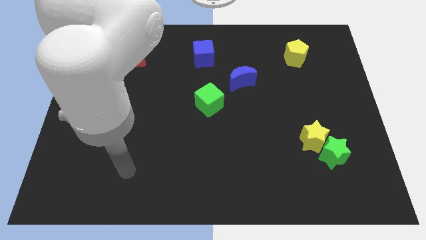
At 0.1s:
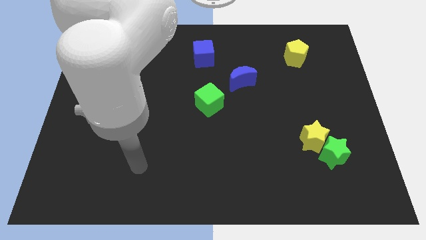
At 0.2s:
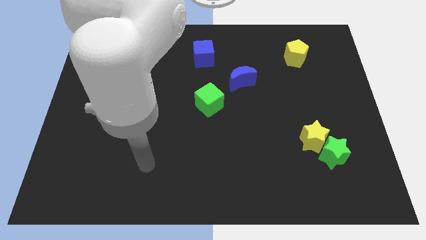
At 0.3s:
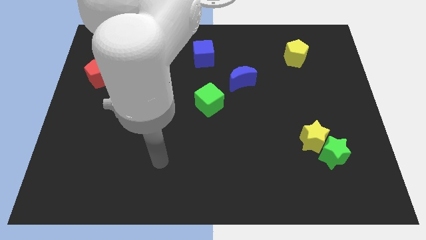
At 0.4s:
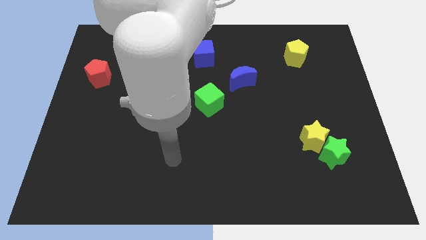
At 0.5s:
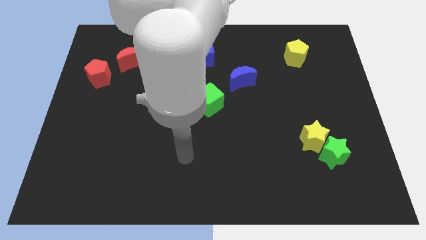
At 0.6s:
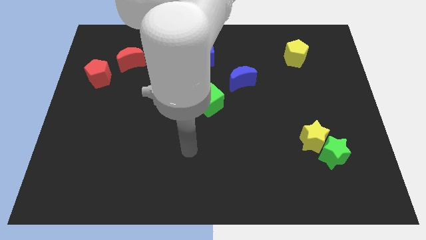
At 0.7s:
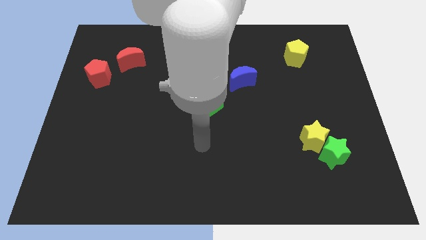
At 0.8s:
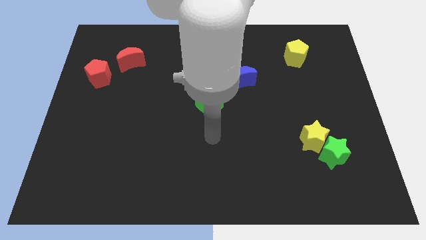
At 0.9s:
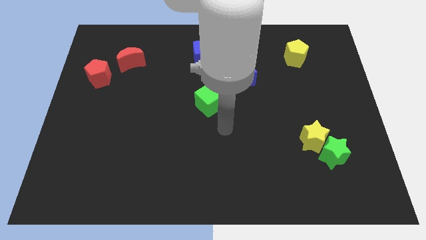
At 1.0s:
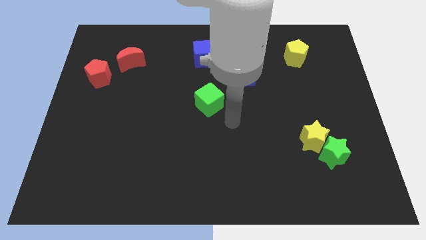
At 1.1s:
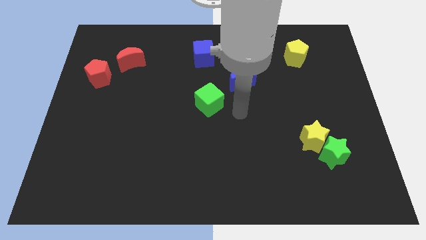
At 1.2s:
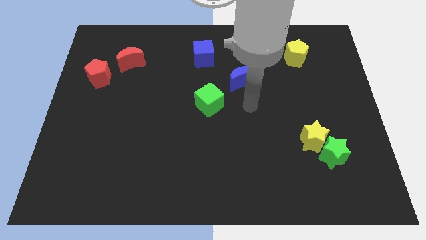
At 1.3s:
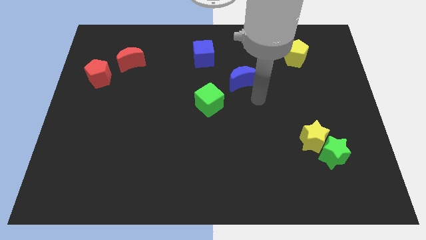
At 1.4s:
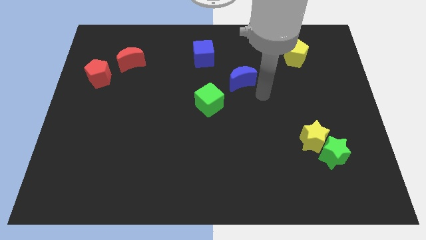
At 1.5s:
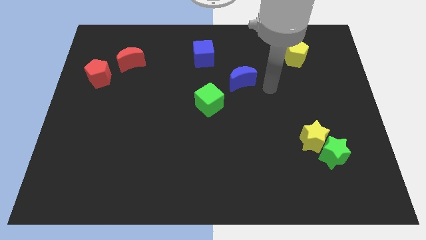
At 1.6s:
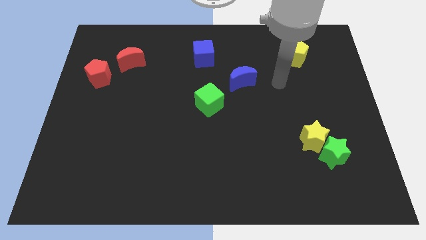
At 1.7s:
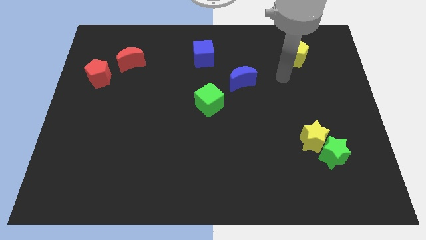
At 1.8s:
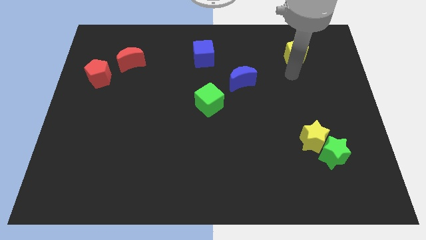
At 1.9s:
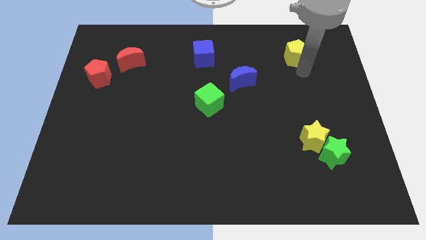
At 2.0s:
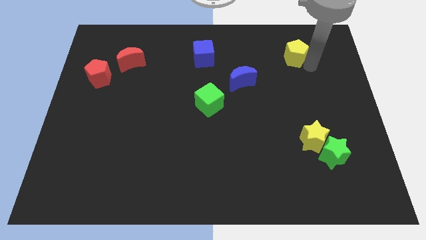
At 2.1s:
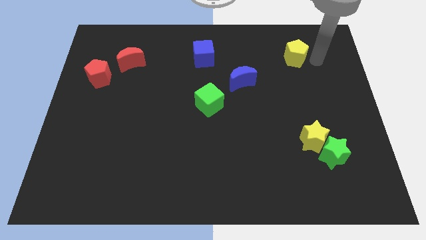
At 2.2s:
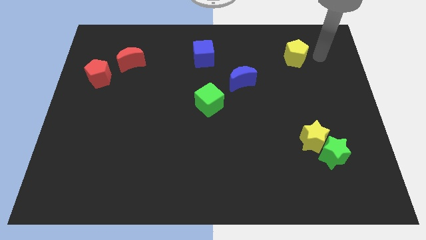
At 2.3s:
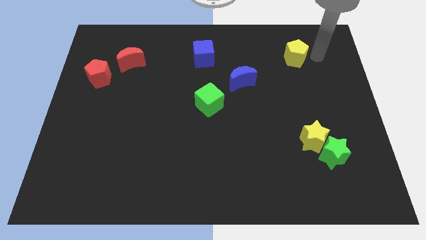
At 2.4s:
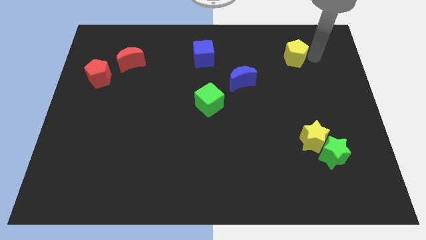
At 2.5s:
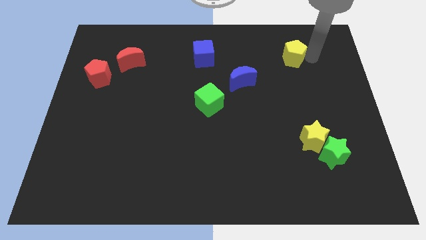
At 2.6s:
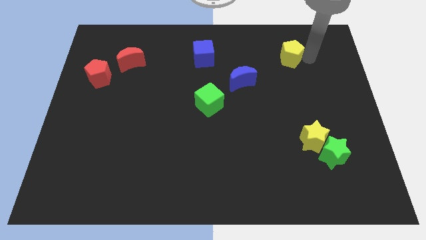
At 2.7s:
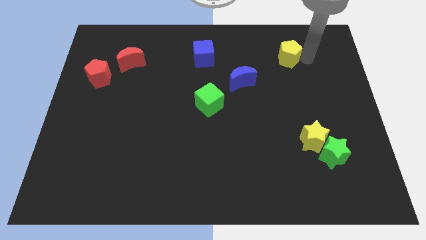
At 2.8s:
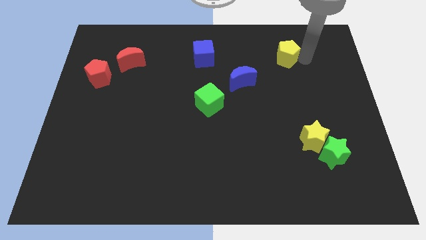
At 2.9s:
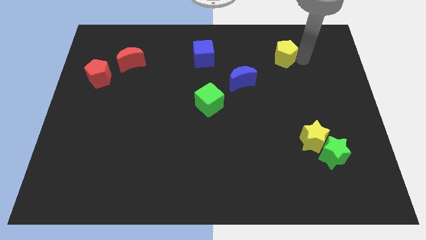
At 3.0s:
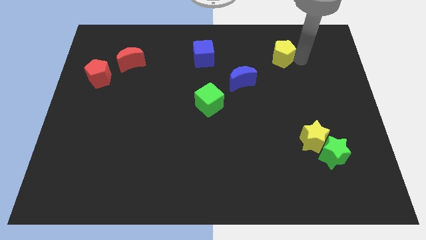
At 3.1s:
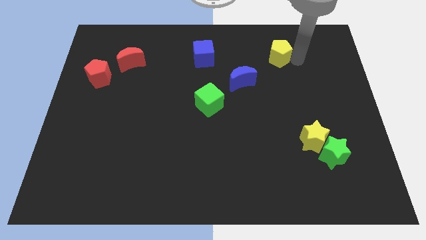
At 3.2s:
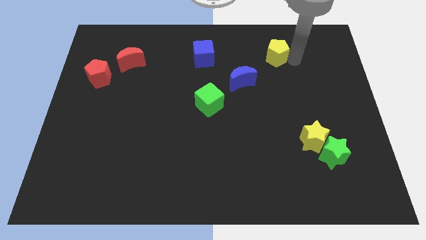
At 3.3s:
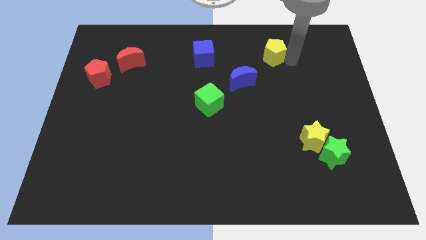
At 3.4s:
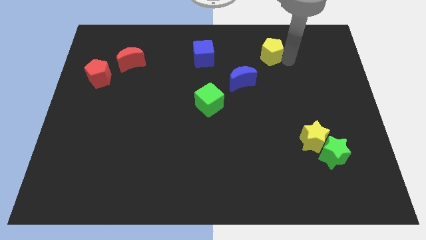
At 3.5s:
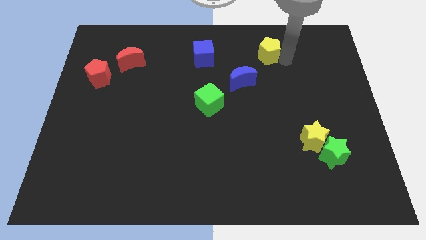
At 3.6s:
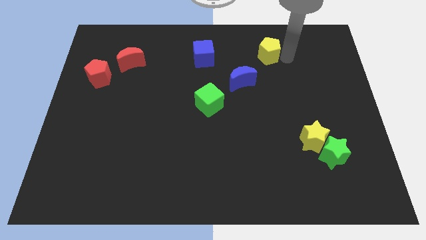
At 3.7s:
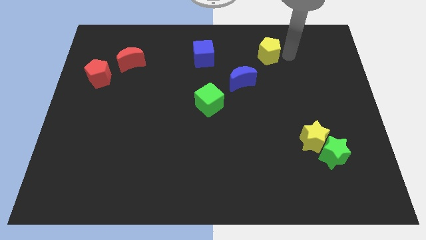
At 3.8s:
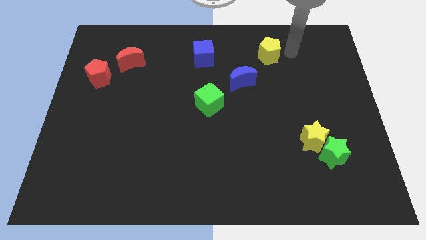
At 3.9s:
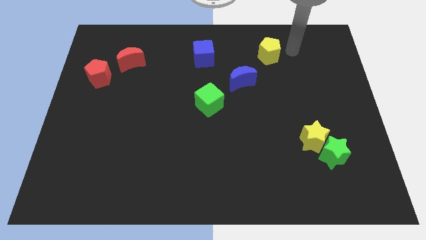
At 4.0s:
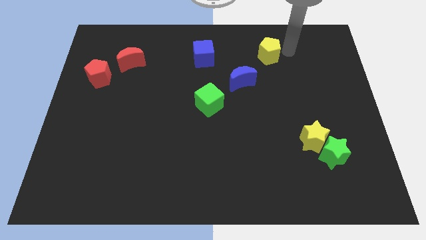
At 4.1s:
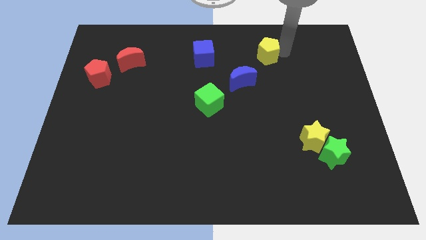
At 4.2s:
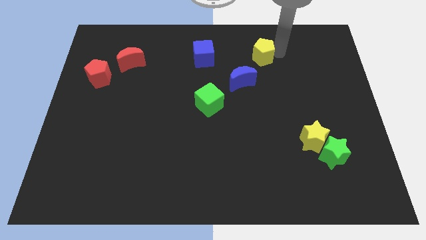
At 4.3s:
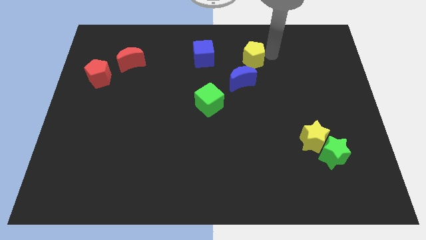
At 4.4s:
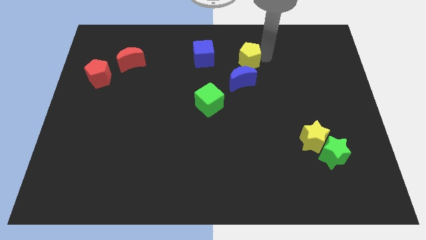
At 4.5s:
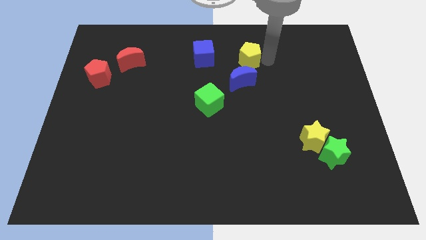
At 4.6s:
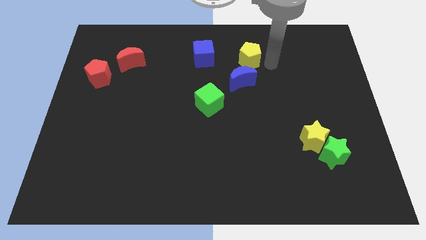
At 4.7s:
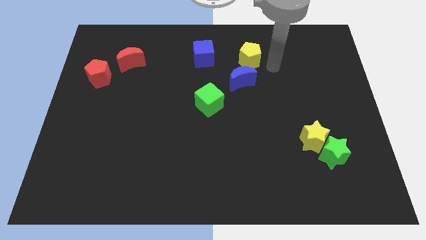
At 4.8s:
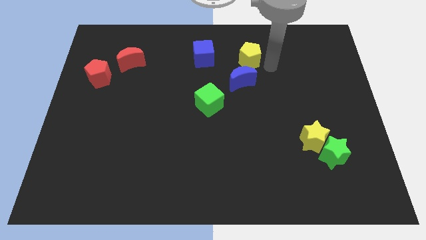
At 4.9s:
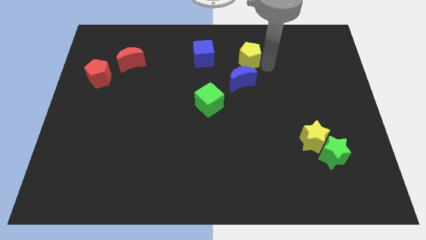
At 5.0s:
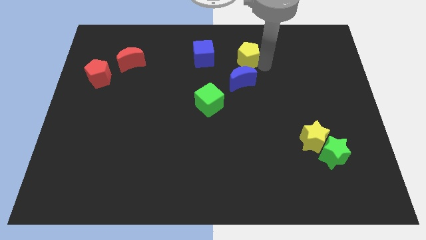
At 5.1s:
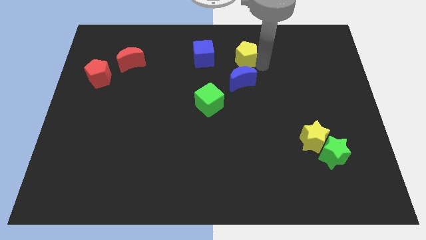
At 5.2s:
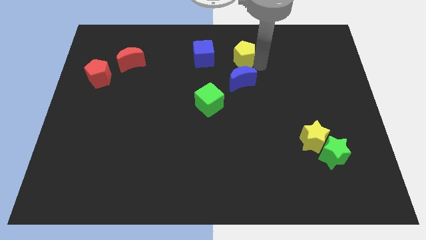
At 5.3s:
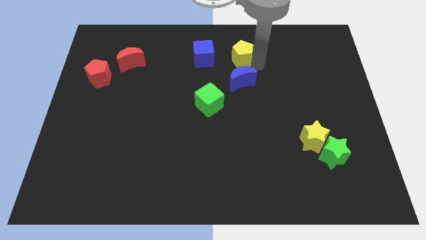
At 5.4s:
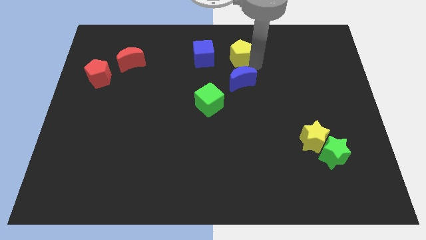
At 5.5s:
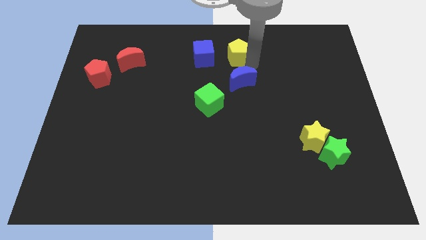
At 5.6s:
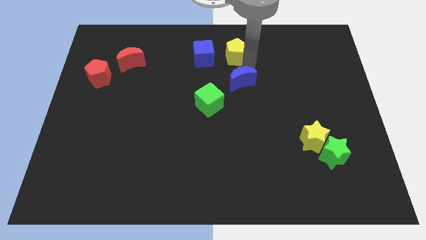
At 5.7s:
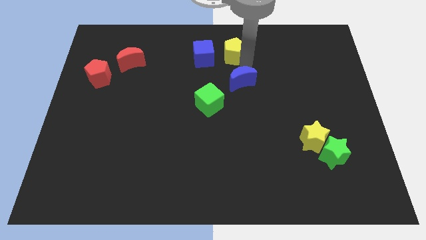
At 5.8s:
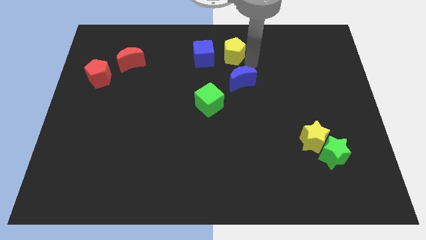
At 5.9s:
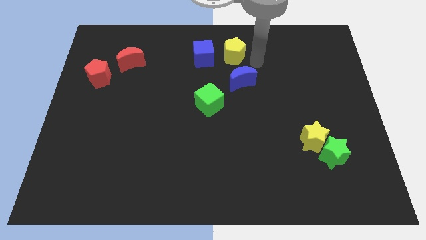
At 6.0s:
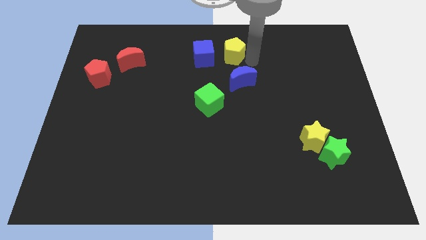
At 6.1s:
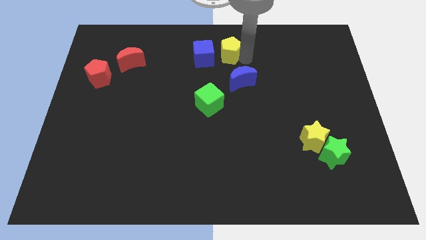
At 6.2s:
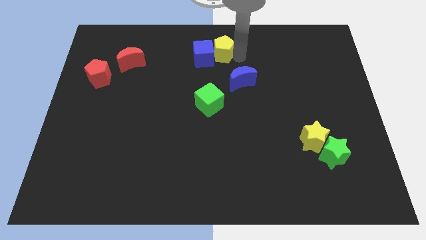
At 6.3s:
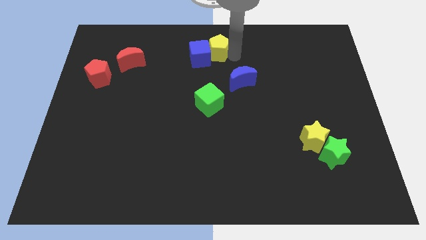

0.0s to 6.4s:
push the yellow pentagon left

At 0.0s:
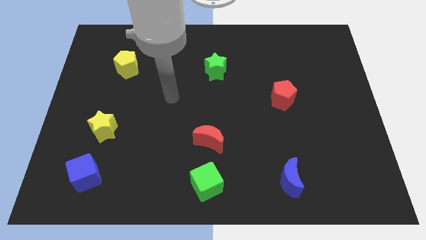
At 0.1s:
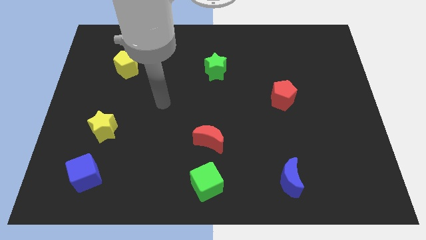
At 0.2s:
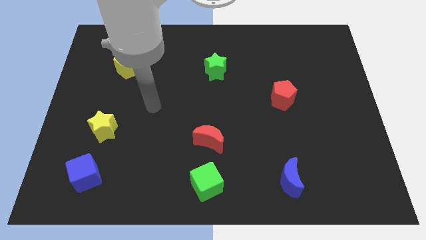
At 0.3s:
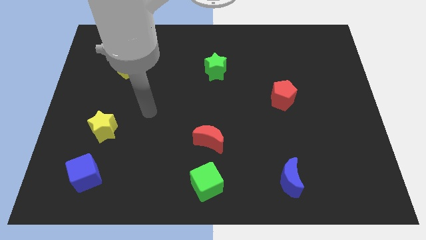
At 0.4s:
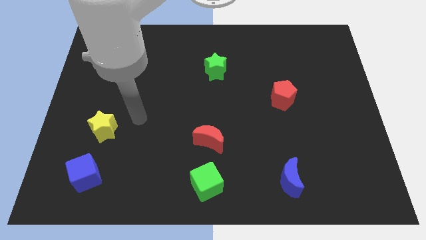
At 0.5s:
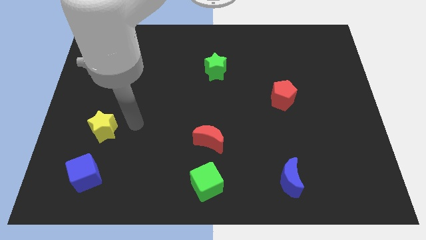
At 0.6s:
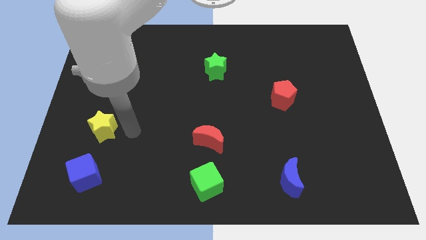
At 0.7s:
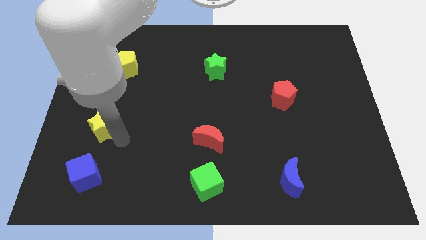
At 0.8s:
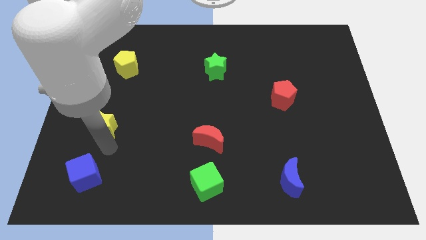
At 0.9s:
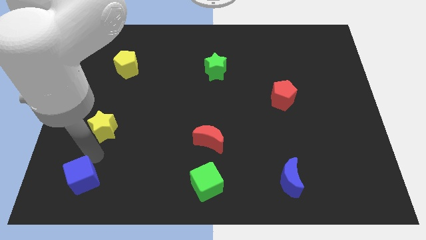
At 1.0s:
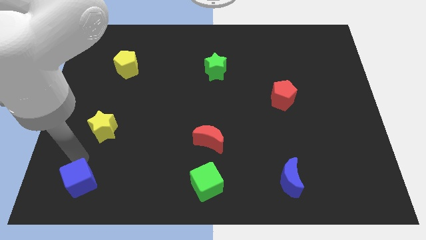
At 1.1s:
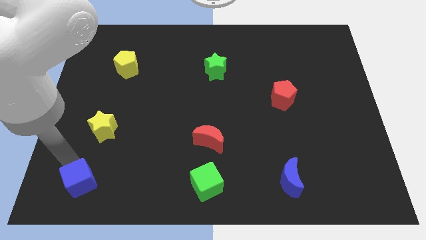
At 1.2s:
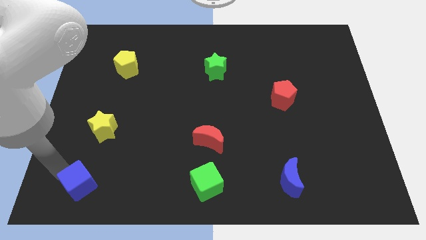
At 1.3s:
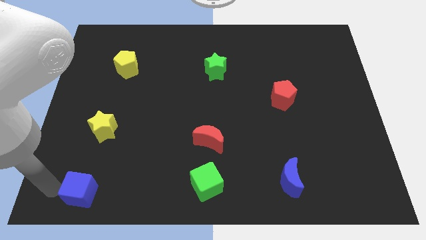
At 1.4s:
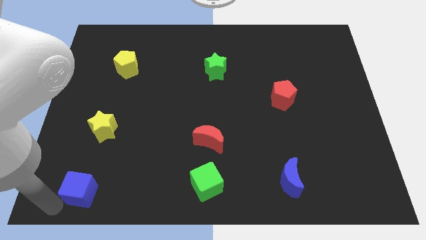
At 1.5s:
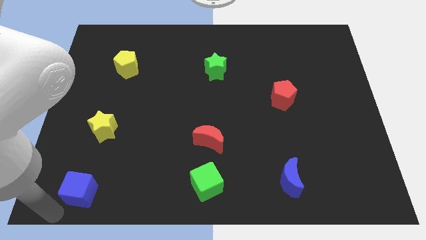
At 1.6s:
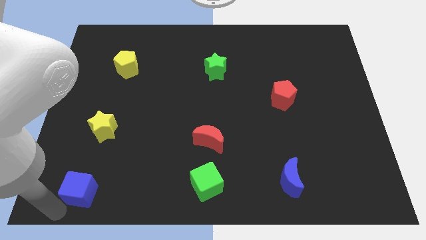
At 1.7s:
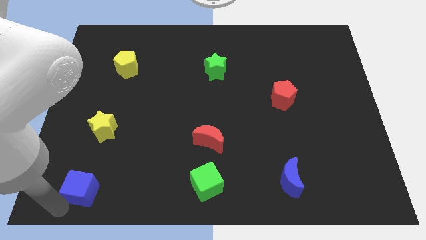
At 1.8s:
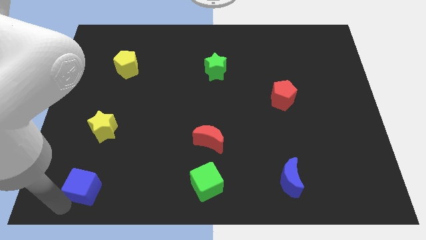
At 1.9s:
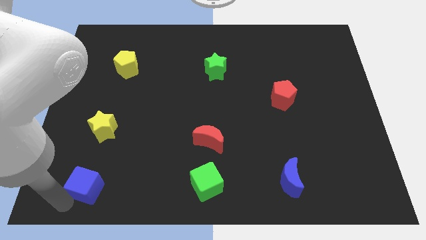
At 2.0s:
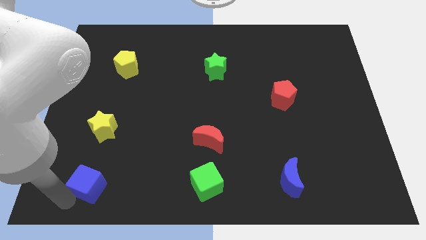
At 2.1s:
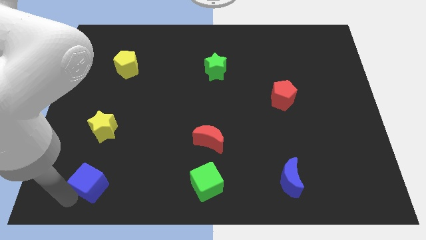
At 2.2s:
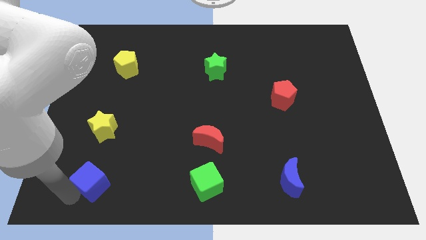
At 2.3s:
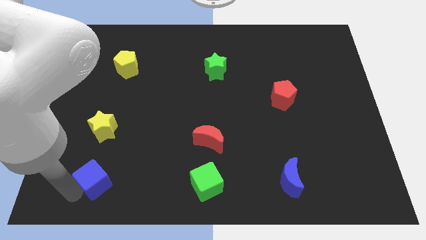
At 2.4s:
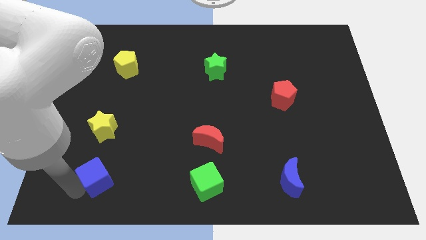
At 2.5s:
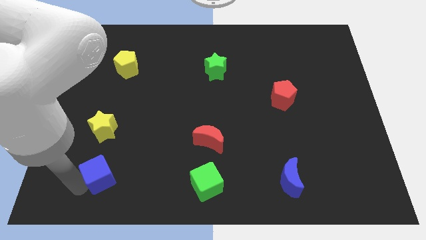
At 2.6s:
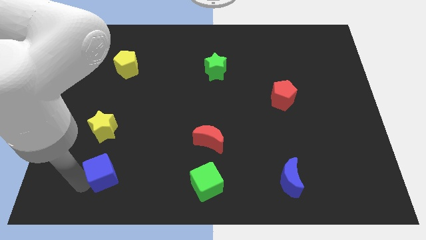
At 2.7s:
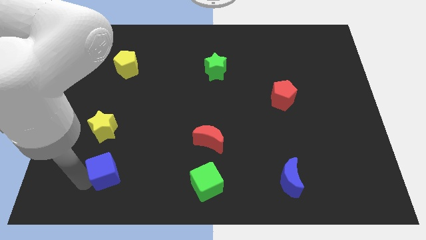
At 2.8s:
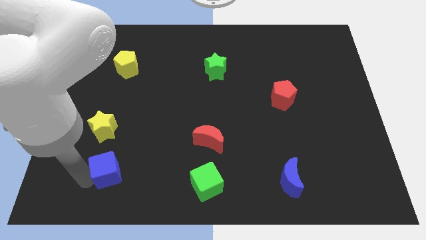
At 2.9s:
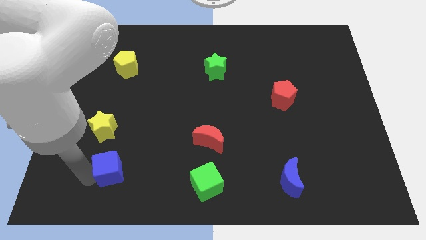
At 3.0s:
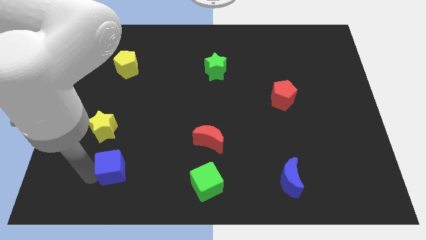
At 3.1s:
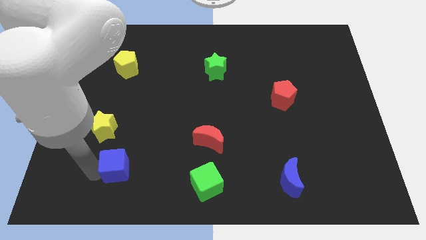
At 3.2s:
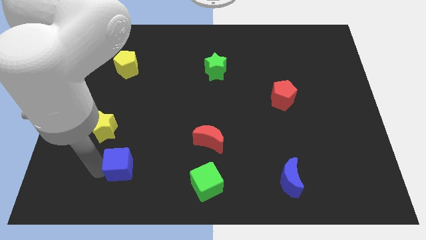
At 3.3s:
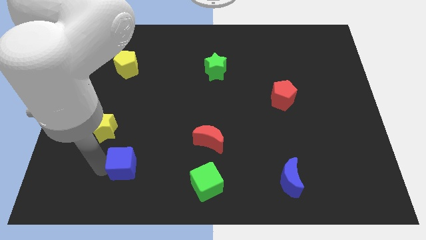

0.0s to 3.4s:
push the blue cube slightly to the right
